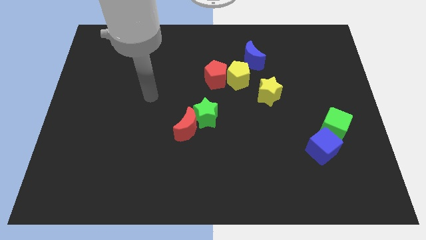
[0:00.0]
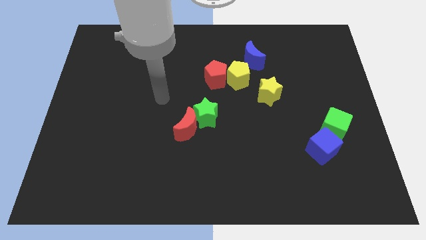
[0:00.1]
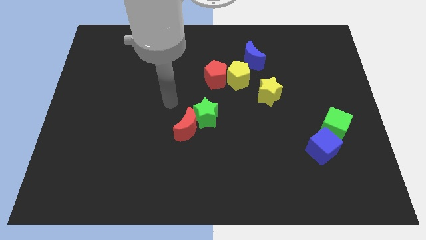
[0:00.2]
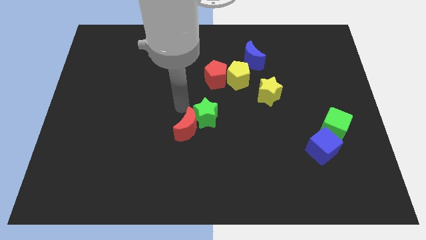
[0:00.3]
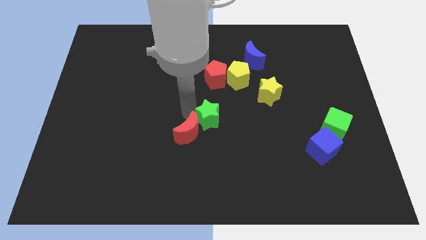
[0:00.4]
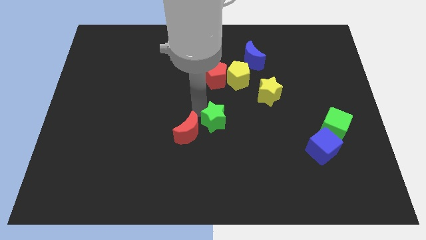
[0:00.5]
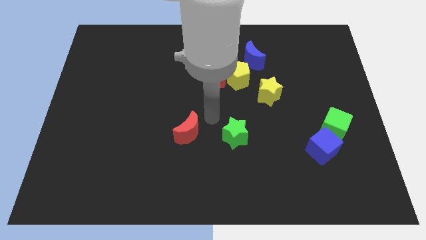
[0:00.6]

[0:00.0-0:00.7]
separate the red moon from the green star

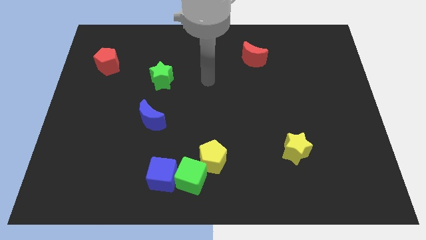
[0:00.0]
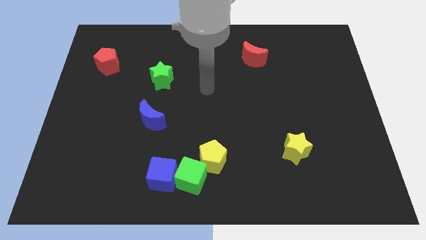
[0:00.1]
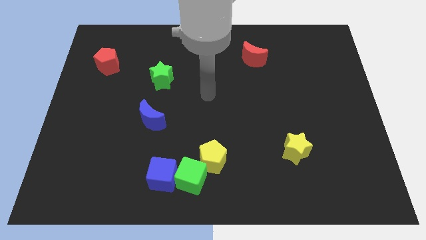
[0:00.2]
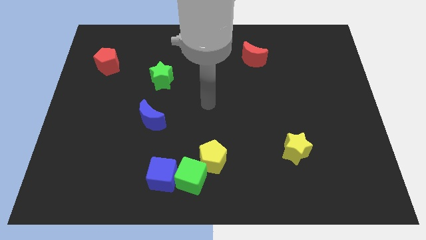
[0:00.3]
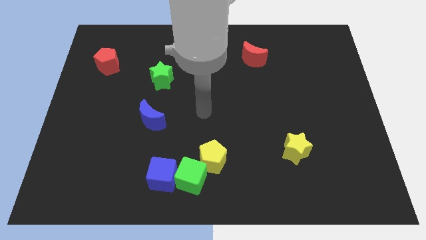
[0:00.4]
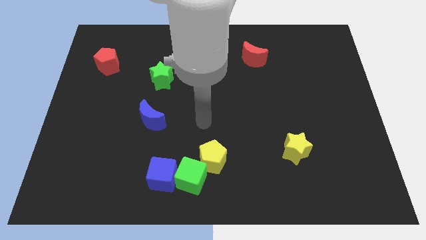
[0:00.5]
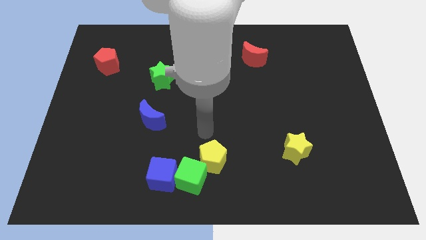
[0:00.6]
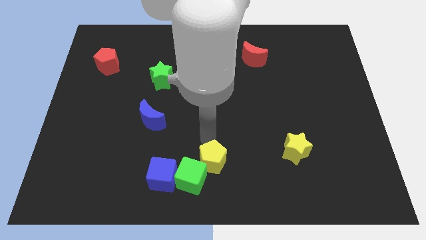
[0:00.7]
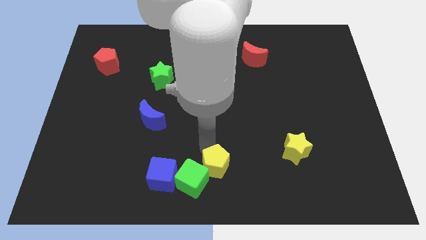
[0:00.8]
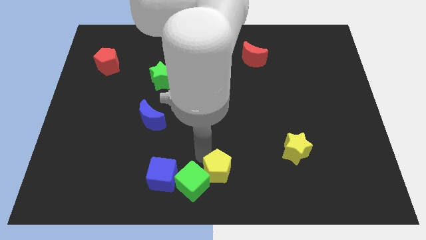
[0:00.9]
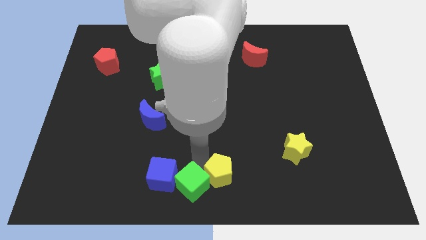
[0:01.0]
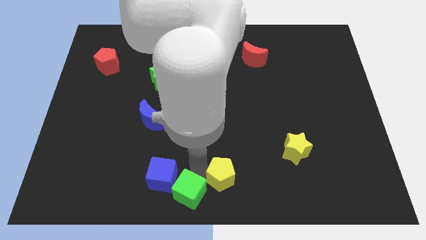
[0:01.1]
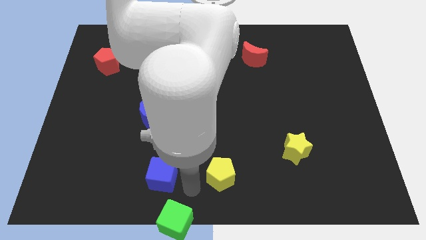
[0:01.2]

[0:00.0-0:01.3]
pull the blue cube apart from the green cube

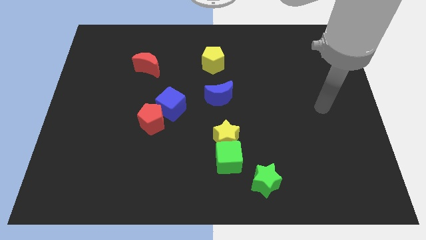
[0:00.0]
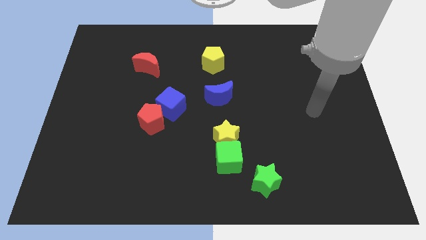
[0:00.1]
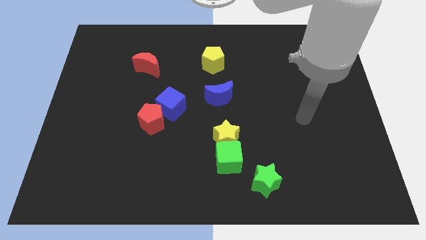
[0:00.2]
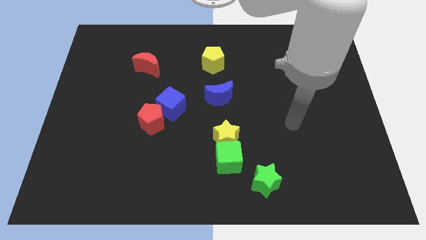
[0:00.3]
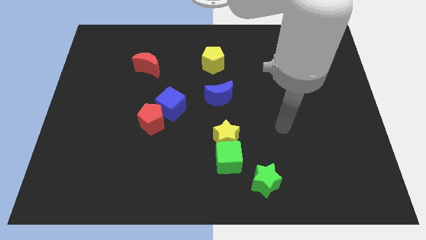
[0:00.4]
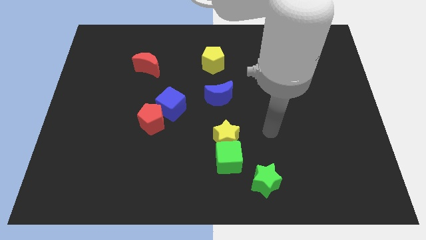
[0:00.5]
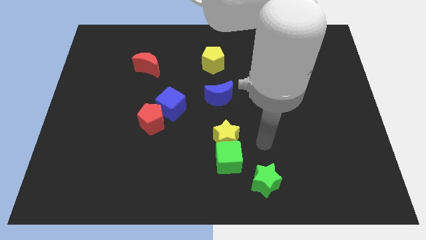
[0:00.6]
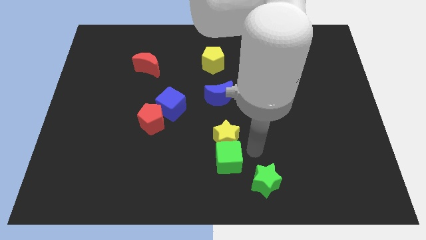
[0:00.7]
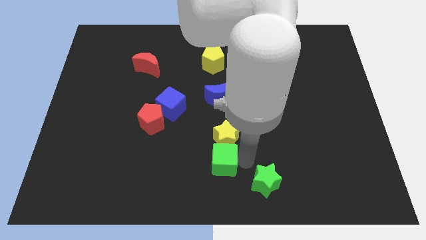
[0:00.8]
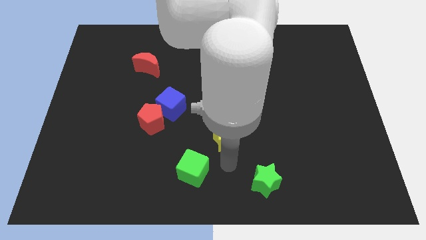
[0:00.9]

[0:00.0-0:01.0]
pull the yellow star apart from the green cube

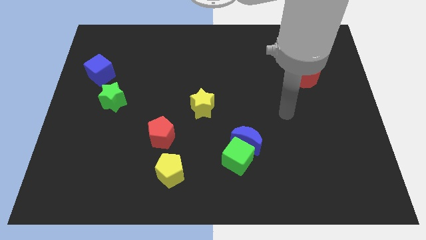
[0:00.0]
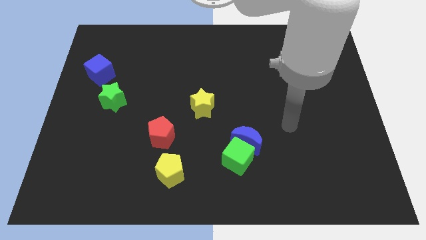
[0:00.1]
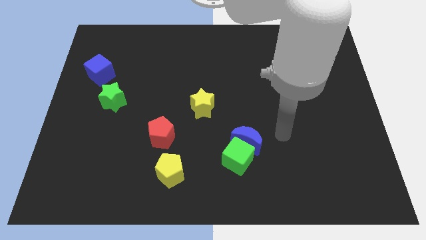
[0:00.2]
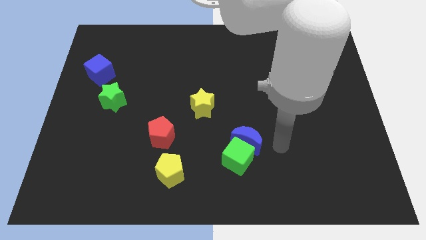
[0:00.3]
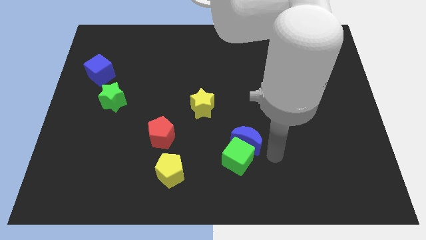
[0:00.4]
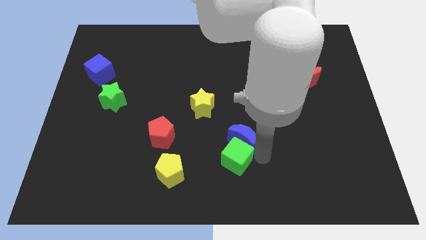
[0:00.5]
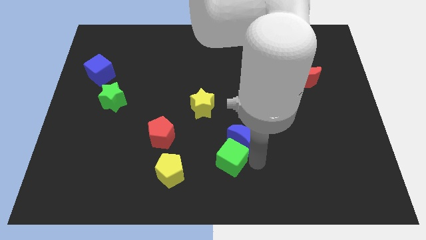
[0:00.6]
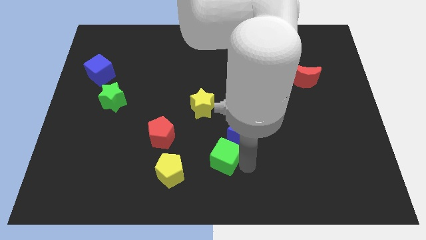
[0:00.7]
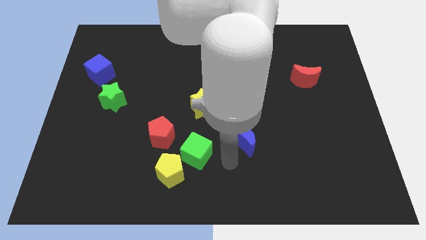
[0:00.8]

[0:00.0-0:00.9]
separate the blue moon from the green cube

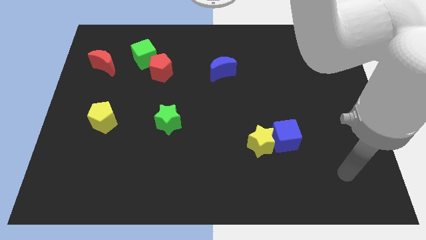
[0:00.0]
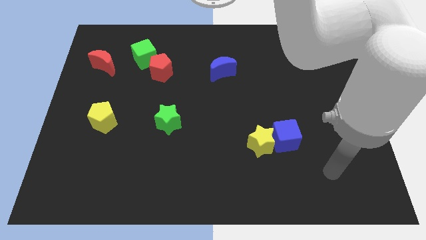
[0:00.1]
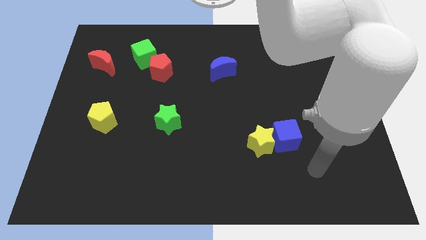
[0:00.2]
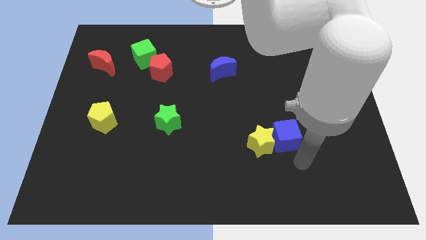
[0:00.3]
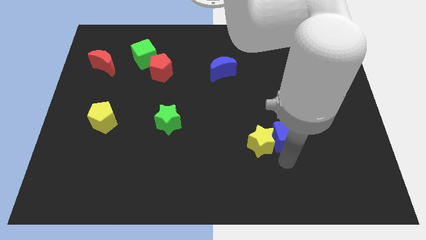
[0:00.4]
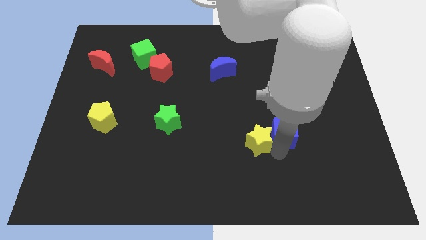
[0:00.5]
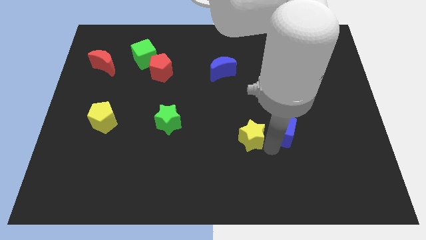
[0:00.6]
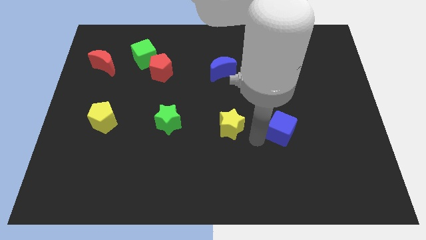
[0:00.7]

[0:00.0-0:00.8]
move the blue cube away from the yellow star

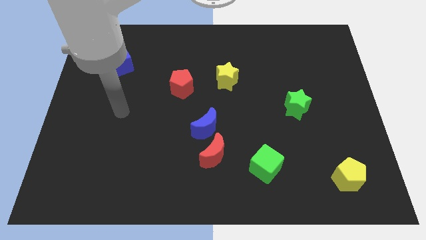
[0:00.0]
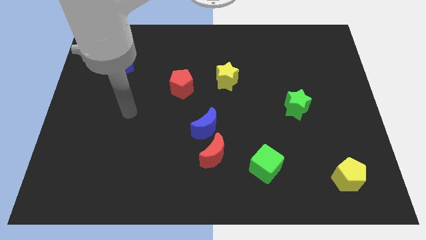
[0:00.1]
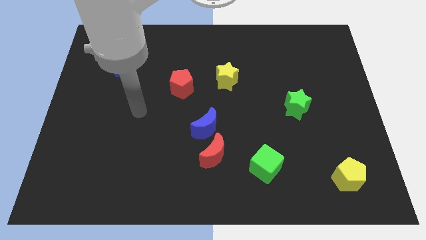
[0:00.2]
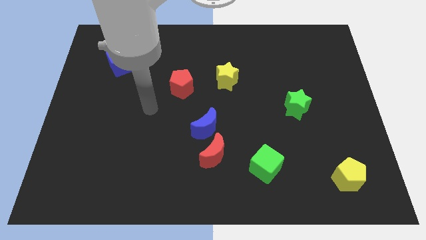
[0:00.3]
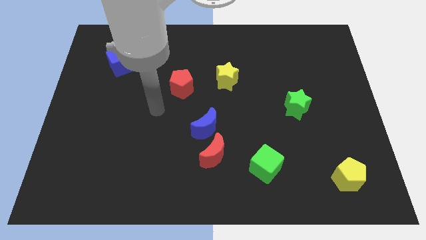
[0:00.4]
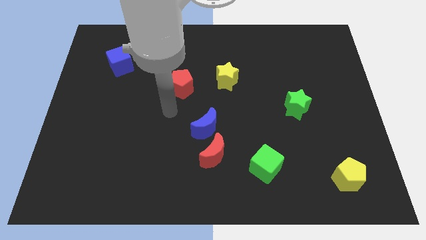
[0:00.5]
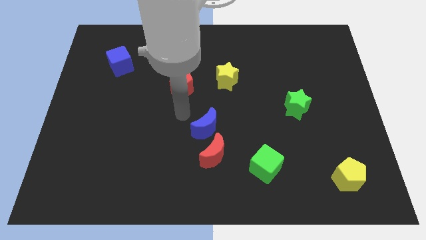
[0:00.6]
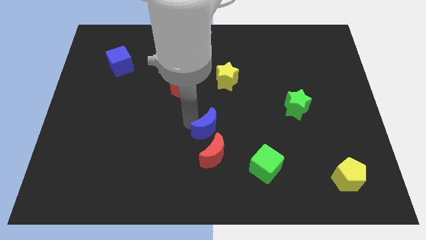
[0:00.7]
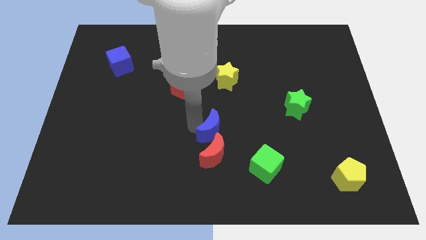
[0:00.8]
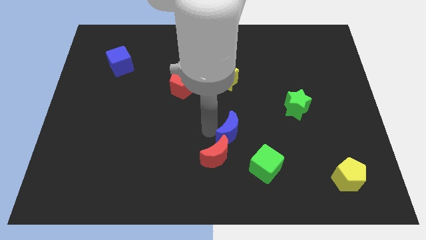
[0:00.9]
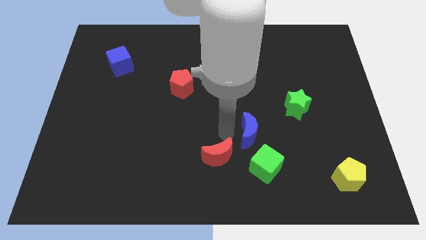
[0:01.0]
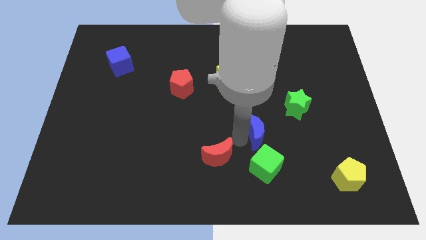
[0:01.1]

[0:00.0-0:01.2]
separate the red moon from the blue moon

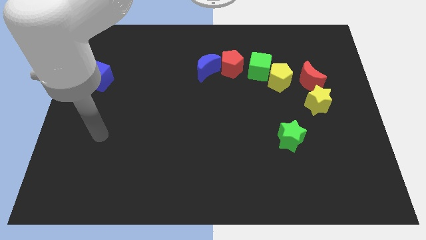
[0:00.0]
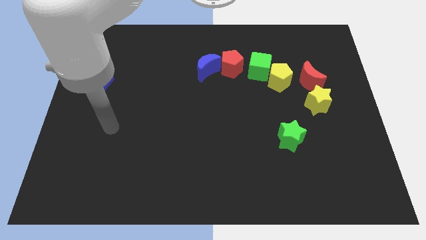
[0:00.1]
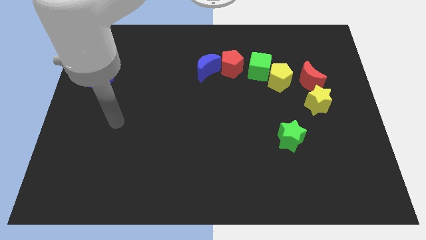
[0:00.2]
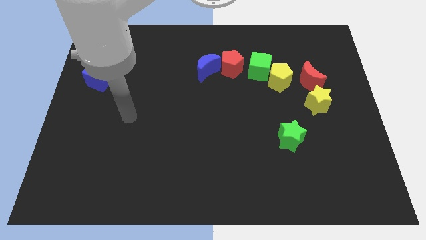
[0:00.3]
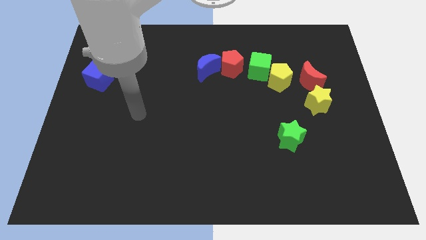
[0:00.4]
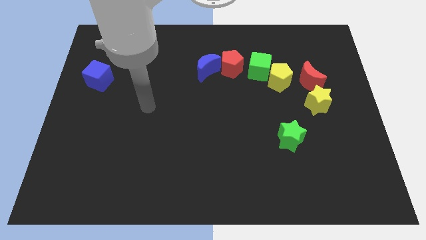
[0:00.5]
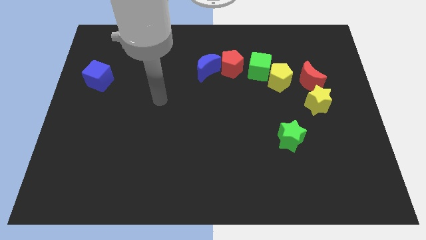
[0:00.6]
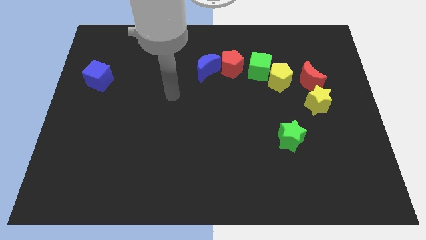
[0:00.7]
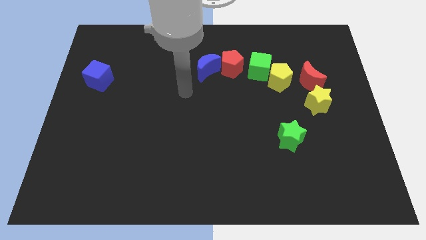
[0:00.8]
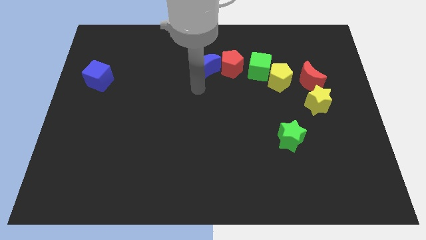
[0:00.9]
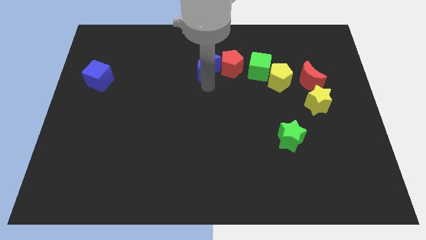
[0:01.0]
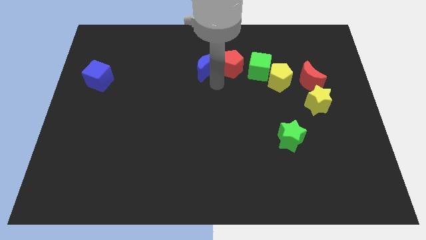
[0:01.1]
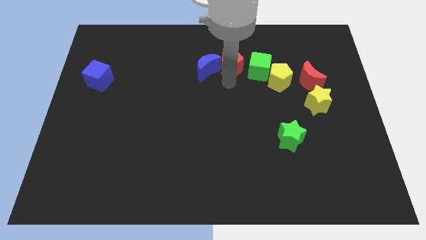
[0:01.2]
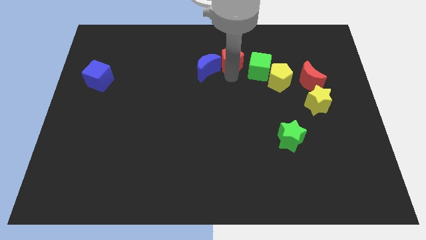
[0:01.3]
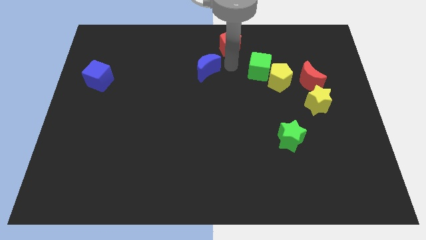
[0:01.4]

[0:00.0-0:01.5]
pull the blue moon apart from the red pentagon

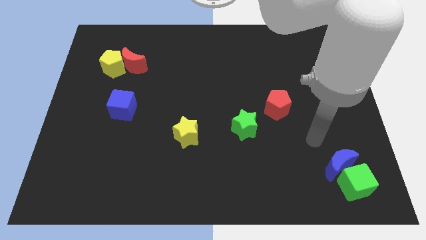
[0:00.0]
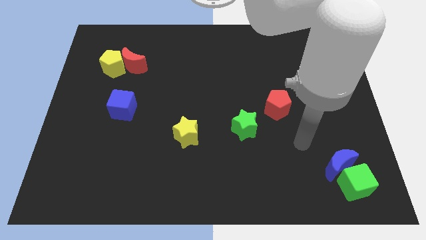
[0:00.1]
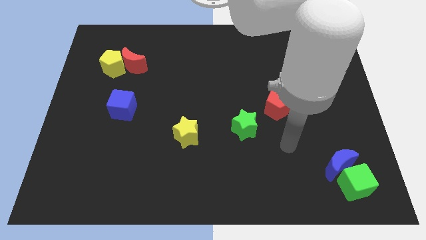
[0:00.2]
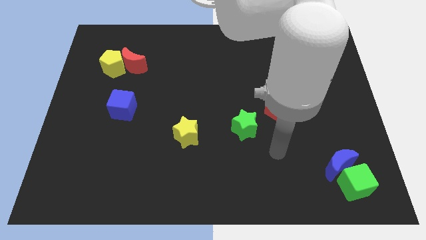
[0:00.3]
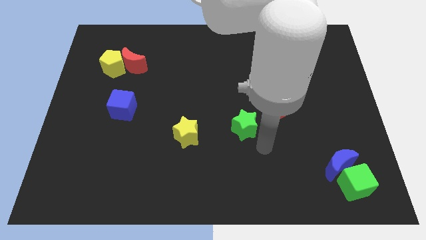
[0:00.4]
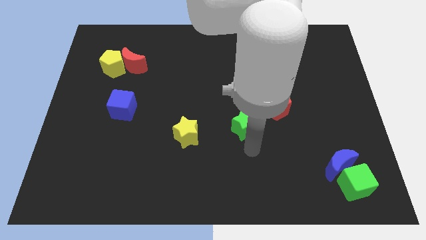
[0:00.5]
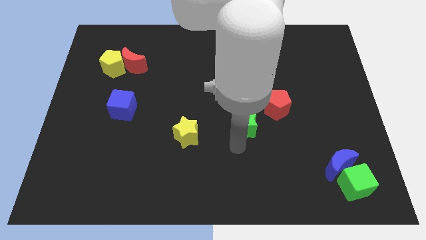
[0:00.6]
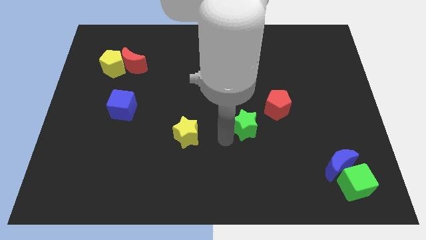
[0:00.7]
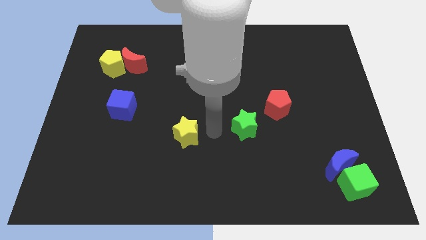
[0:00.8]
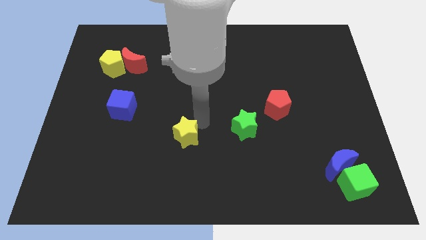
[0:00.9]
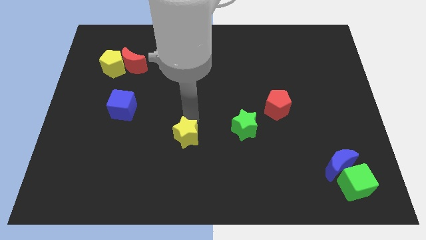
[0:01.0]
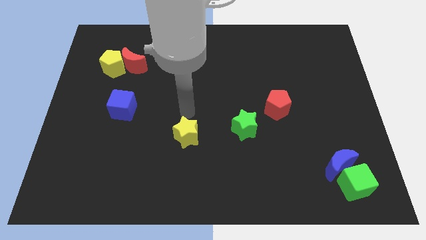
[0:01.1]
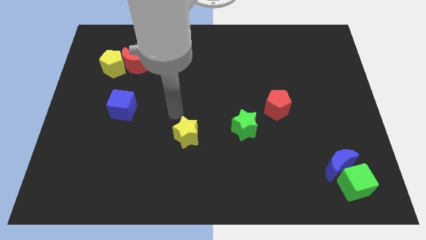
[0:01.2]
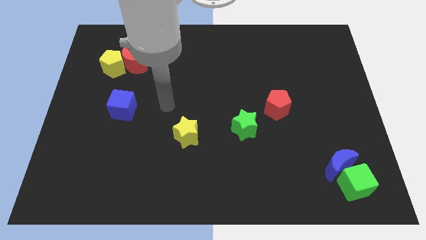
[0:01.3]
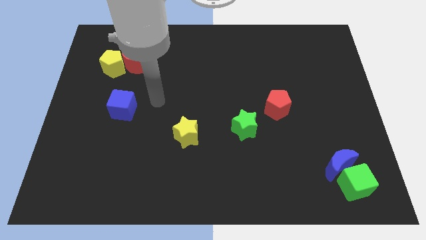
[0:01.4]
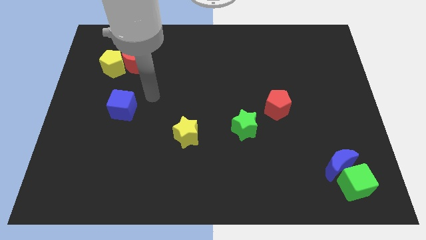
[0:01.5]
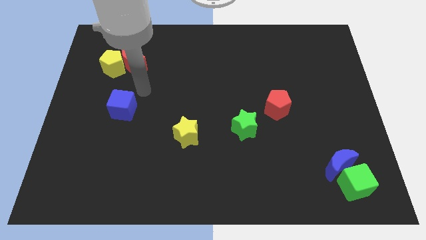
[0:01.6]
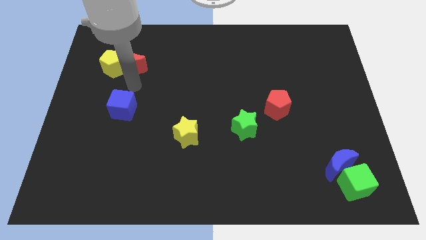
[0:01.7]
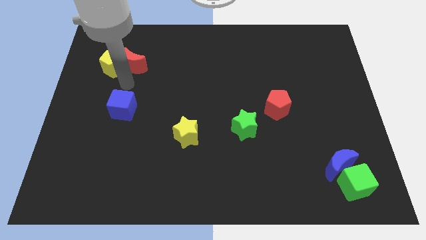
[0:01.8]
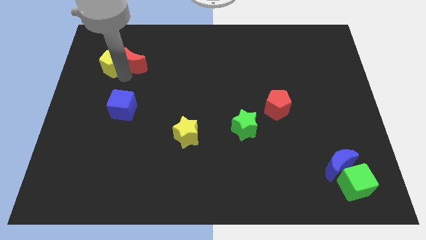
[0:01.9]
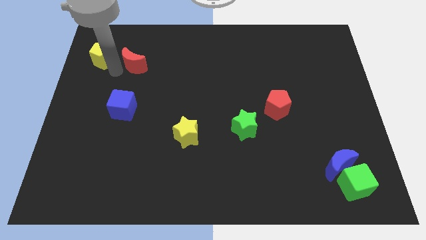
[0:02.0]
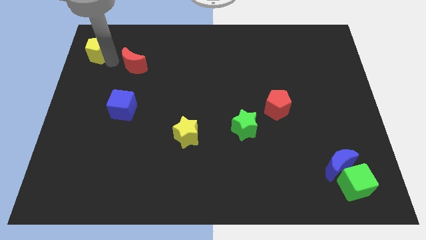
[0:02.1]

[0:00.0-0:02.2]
separate the red moon from the yellow pentagon
